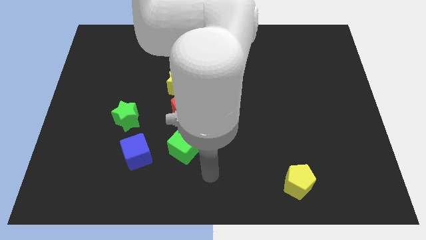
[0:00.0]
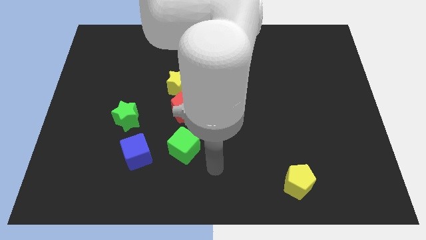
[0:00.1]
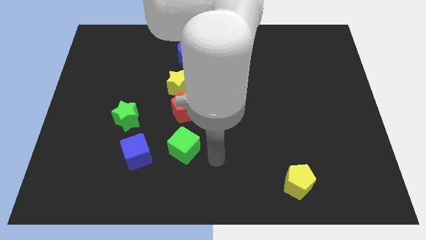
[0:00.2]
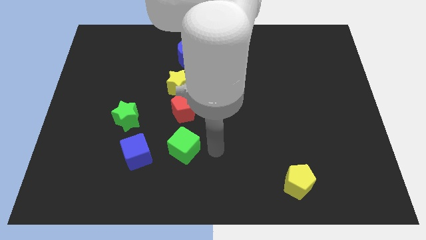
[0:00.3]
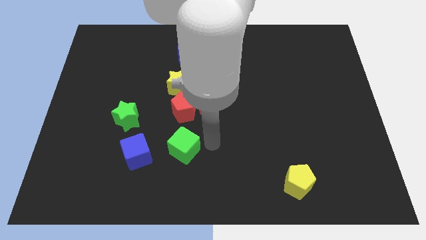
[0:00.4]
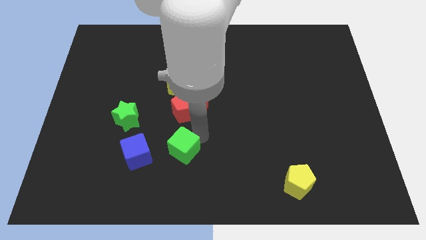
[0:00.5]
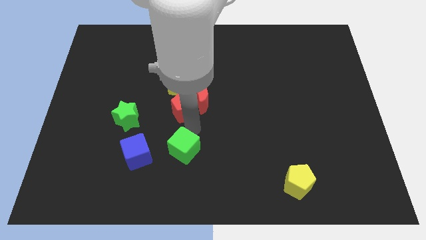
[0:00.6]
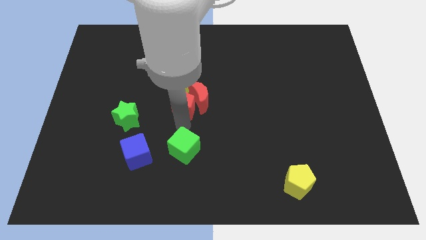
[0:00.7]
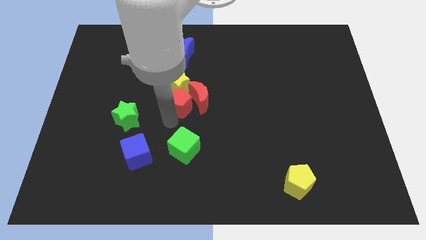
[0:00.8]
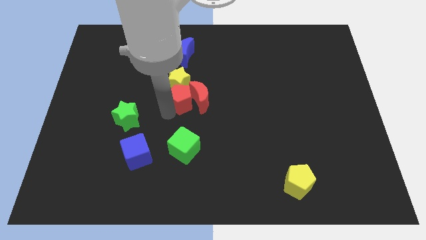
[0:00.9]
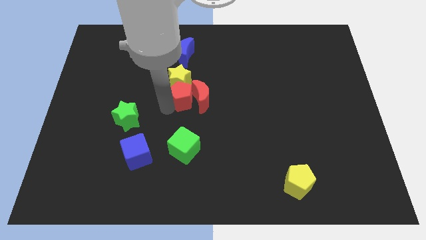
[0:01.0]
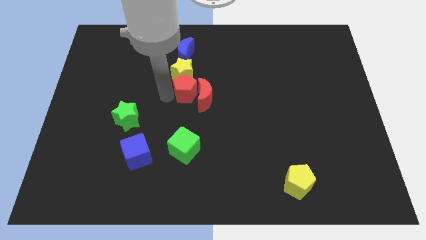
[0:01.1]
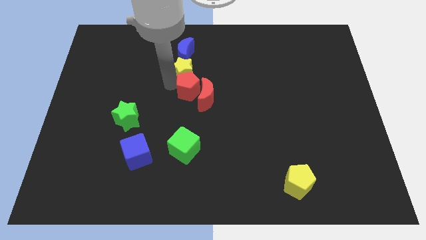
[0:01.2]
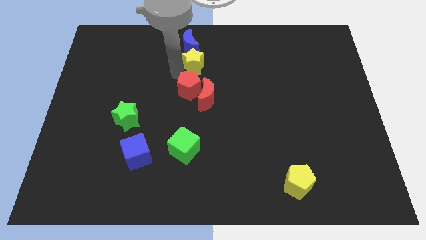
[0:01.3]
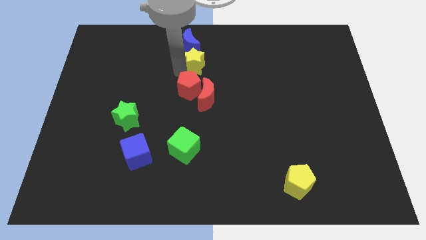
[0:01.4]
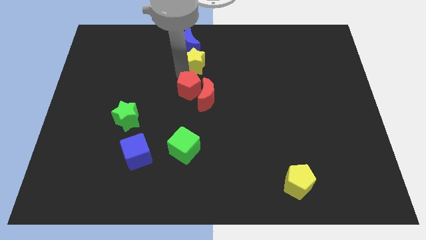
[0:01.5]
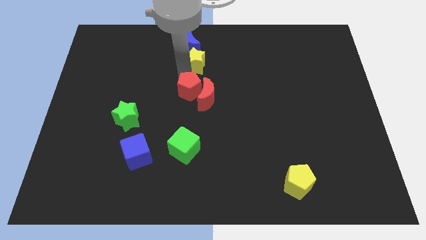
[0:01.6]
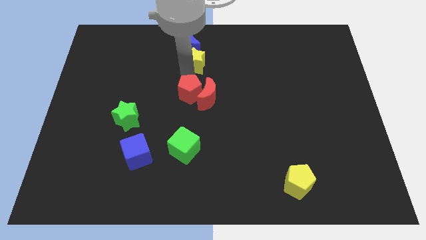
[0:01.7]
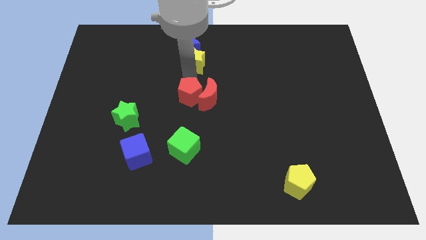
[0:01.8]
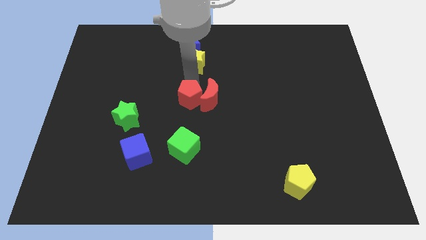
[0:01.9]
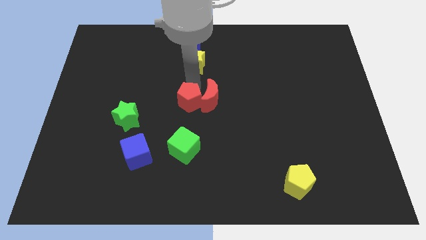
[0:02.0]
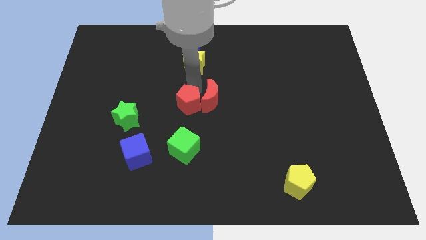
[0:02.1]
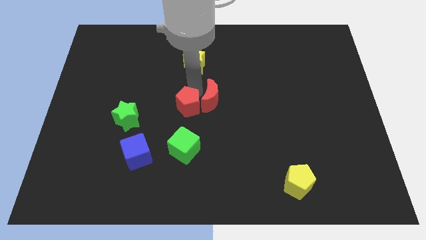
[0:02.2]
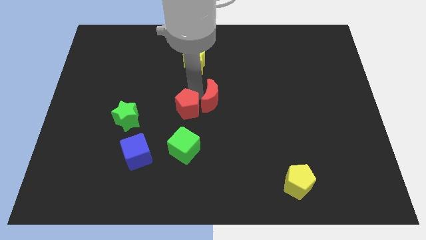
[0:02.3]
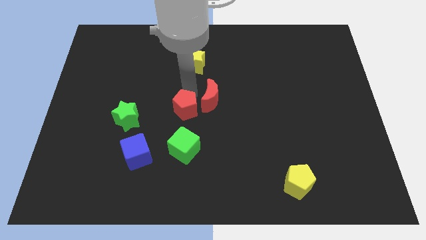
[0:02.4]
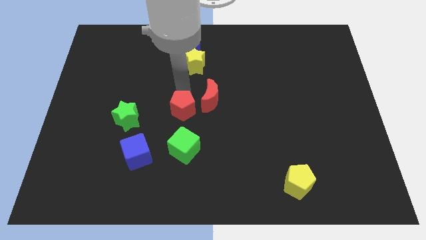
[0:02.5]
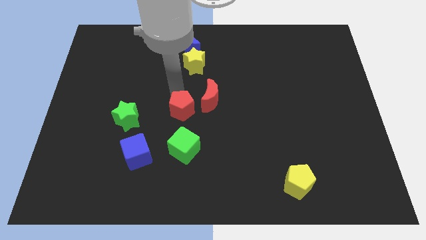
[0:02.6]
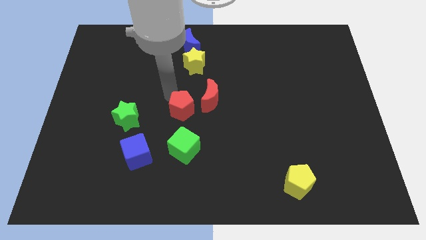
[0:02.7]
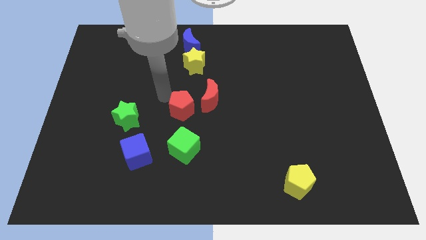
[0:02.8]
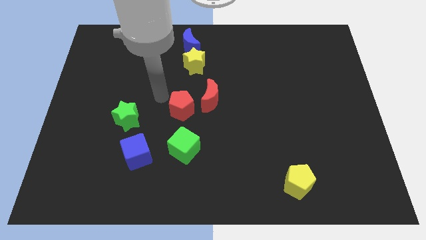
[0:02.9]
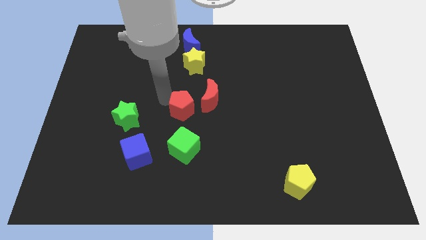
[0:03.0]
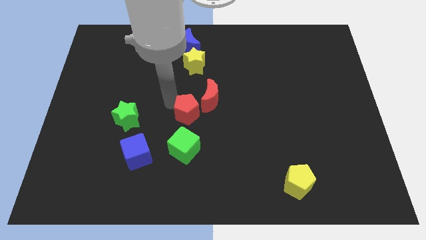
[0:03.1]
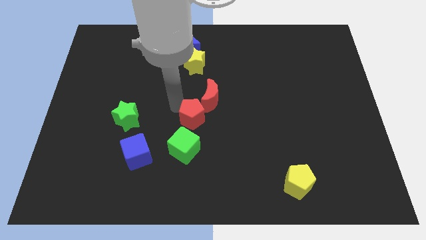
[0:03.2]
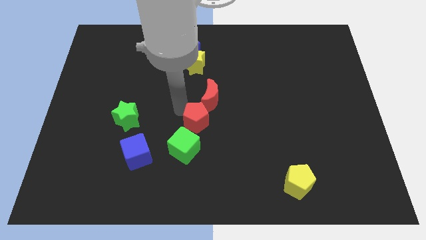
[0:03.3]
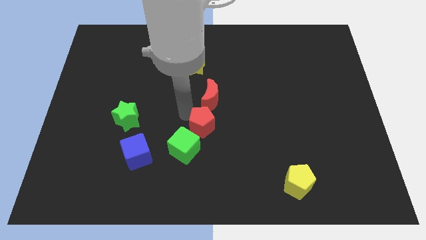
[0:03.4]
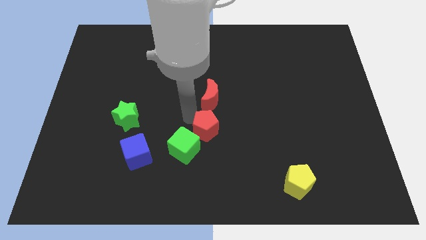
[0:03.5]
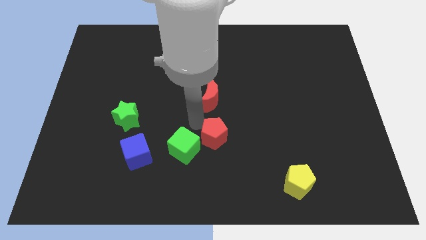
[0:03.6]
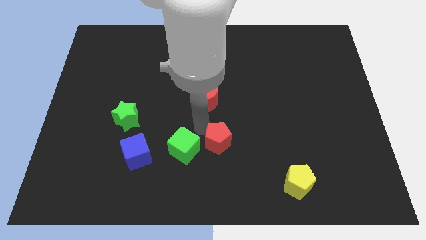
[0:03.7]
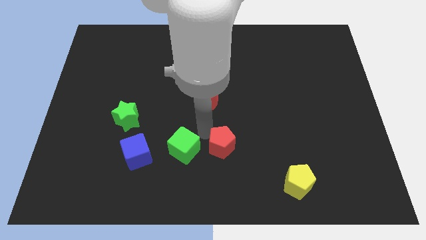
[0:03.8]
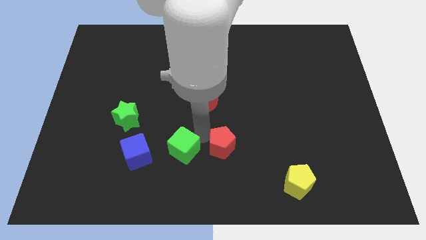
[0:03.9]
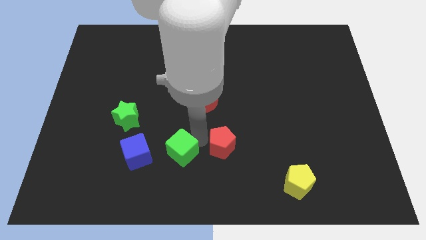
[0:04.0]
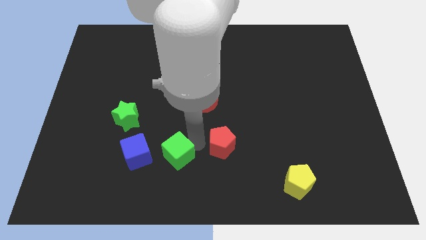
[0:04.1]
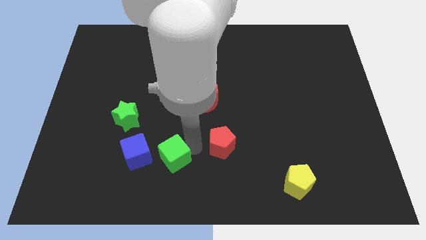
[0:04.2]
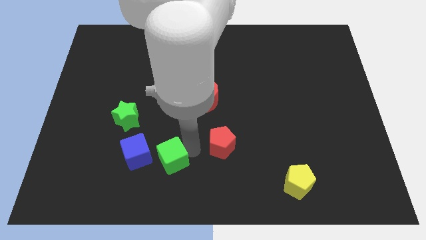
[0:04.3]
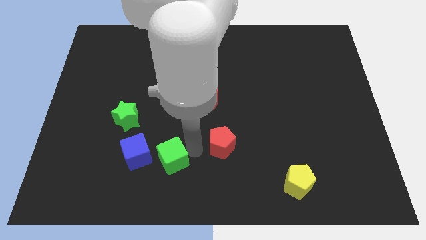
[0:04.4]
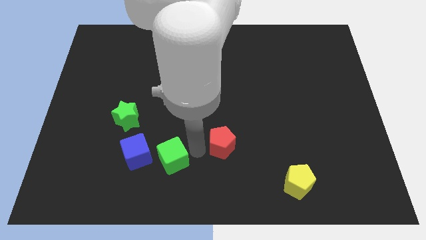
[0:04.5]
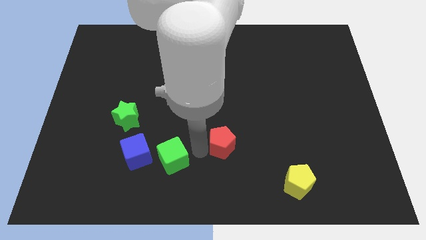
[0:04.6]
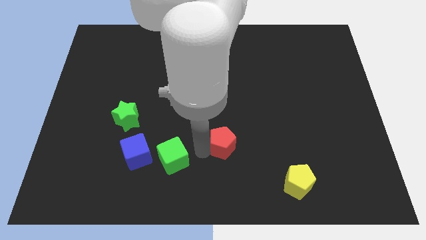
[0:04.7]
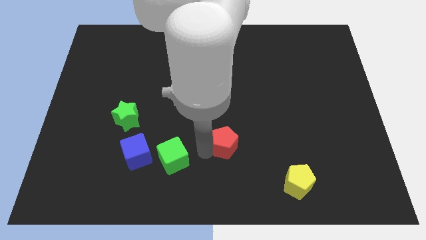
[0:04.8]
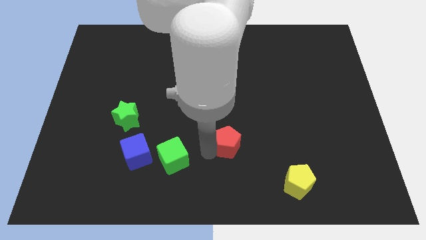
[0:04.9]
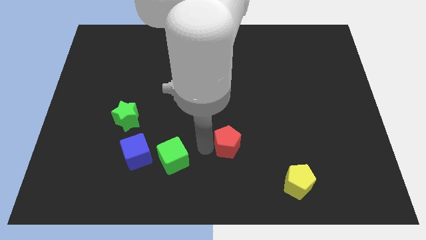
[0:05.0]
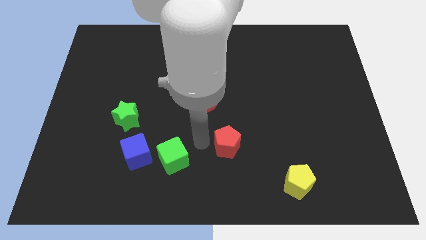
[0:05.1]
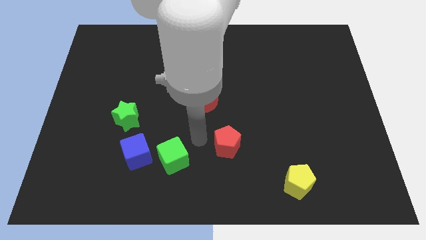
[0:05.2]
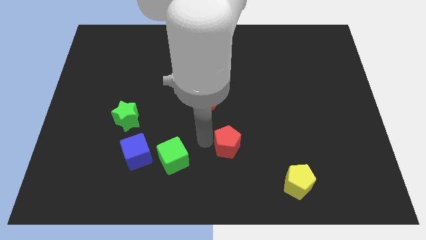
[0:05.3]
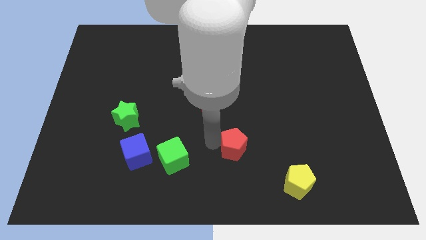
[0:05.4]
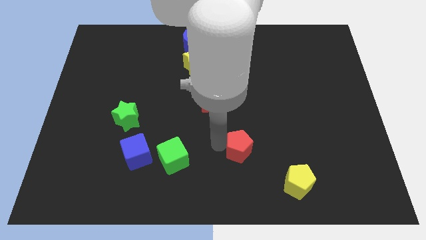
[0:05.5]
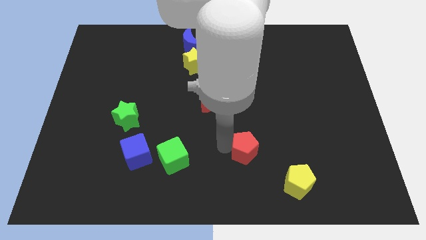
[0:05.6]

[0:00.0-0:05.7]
move the red pentagon diagonally up and to the left of the yellow pentagon

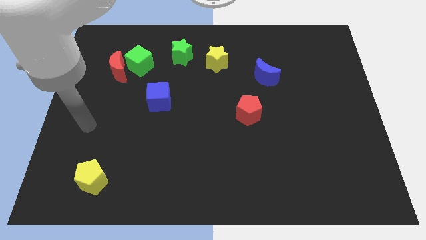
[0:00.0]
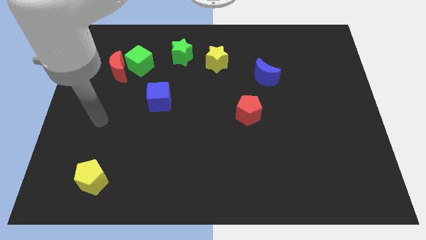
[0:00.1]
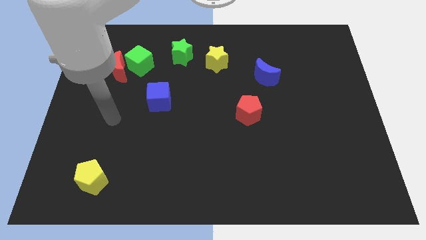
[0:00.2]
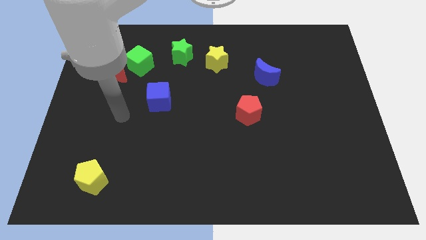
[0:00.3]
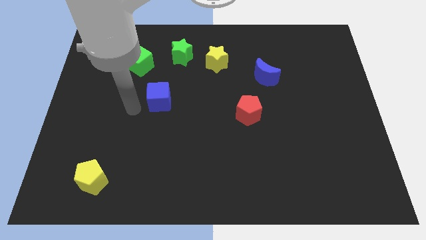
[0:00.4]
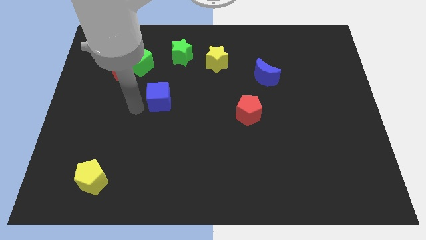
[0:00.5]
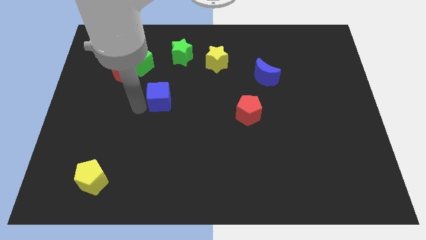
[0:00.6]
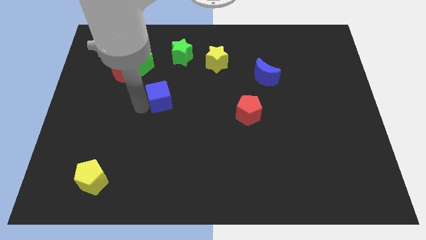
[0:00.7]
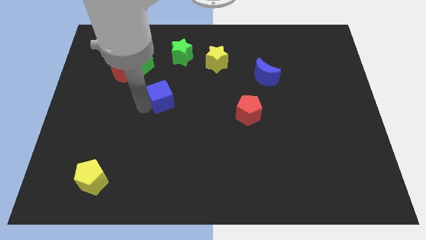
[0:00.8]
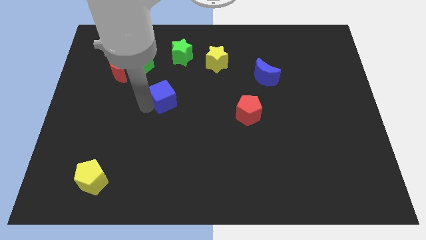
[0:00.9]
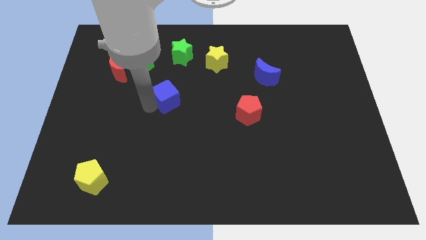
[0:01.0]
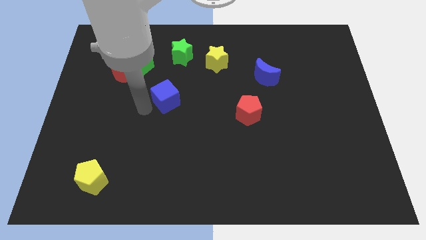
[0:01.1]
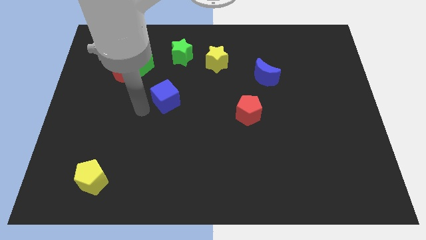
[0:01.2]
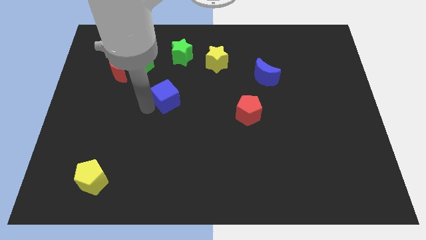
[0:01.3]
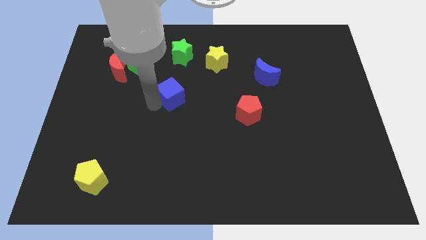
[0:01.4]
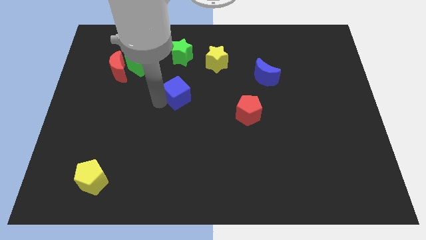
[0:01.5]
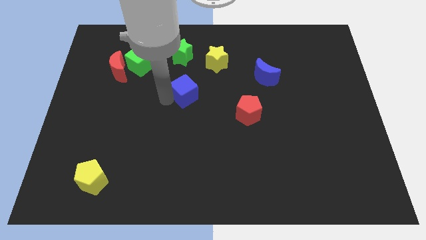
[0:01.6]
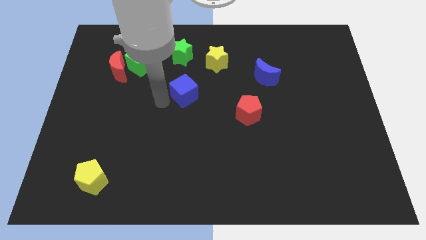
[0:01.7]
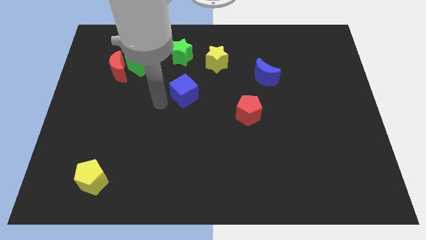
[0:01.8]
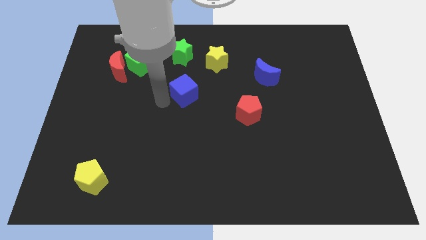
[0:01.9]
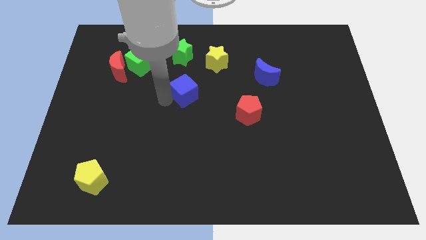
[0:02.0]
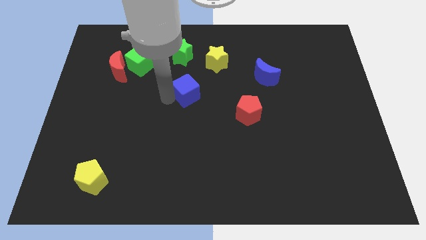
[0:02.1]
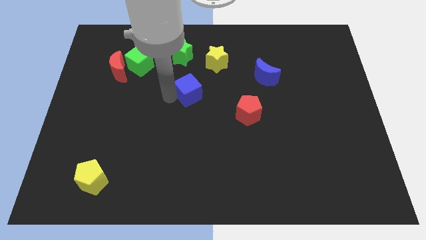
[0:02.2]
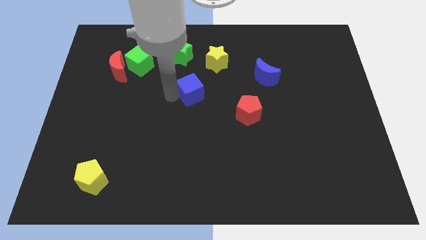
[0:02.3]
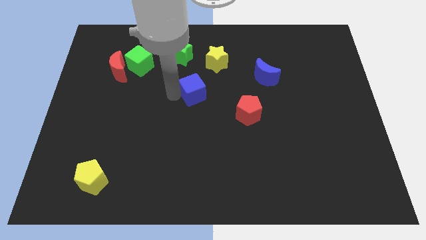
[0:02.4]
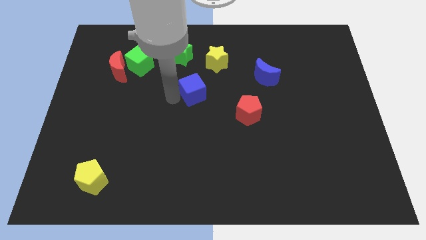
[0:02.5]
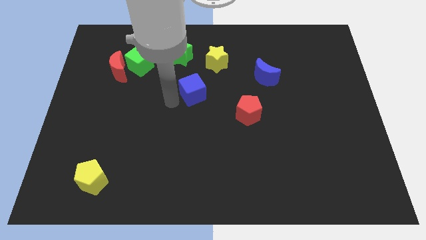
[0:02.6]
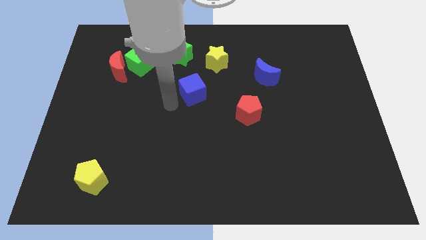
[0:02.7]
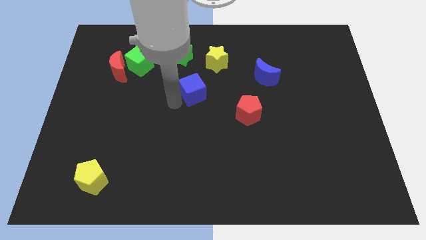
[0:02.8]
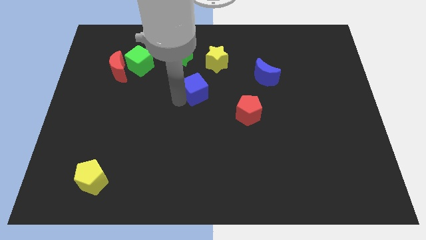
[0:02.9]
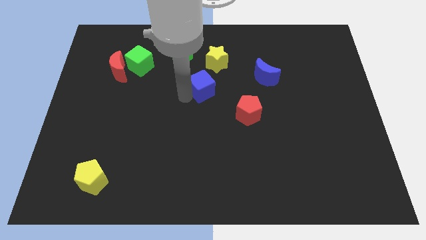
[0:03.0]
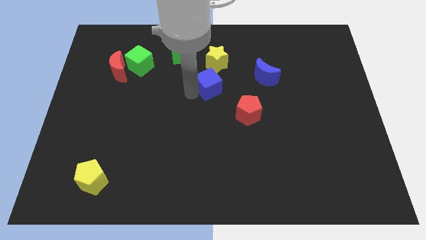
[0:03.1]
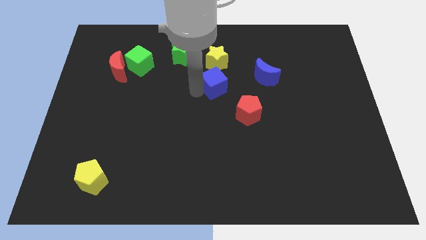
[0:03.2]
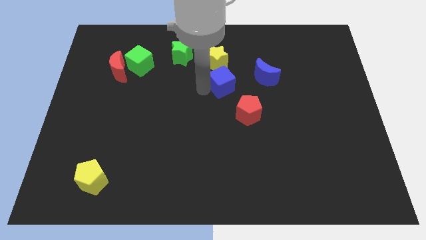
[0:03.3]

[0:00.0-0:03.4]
slide the blue cube to the bottom right side of the yellow star
